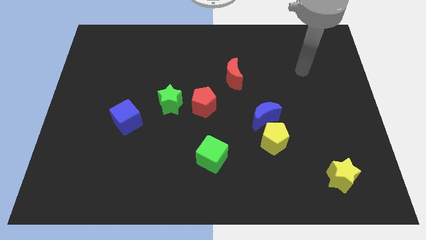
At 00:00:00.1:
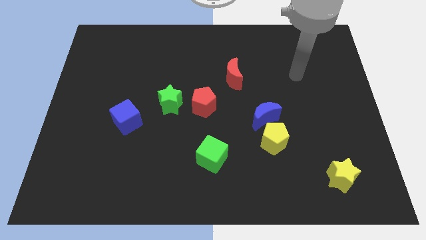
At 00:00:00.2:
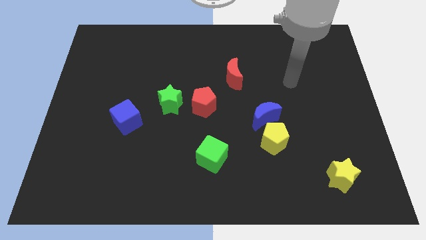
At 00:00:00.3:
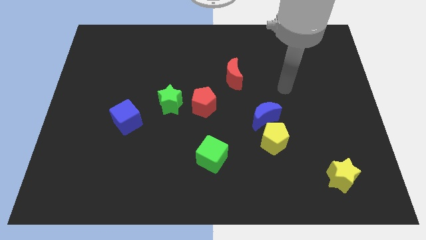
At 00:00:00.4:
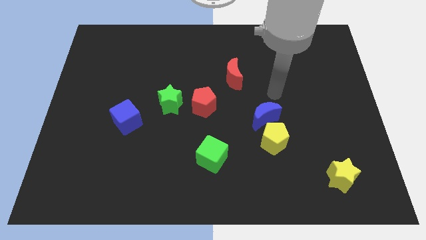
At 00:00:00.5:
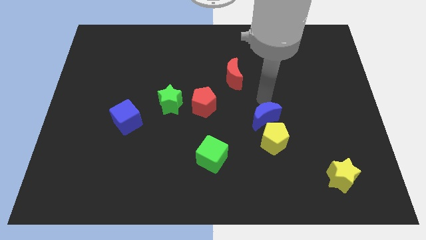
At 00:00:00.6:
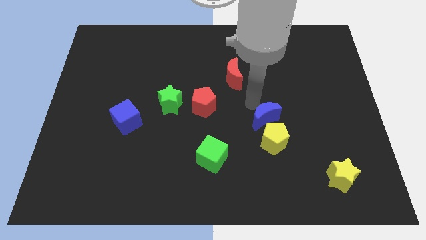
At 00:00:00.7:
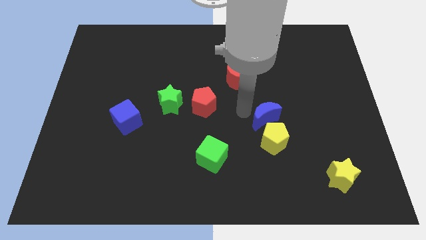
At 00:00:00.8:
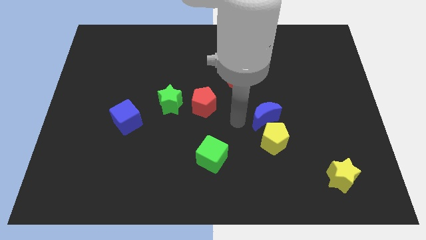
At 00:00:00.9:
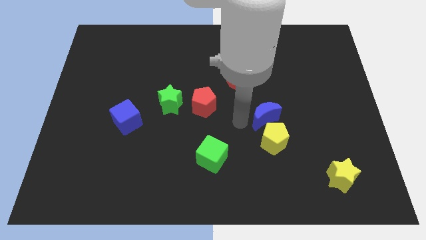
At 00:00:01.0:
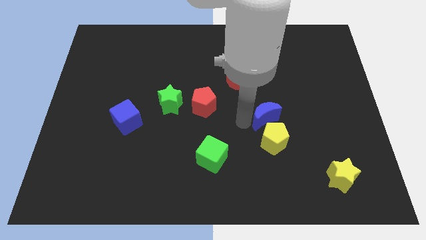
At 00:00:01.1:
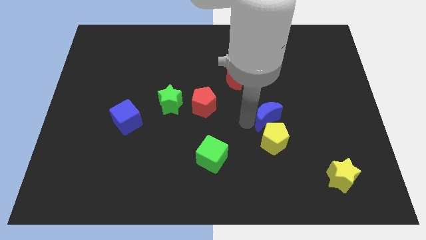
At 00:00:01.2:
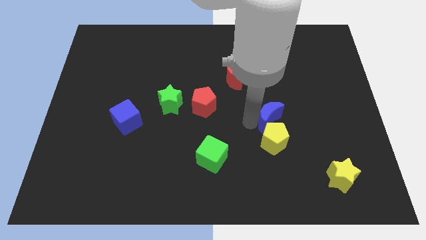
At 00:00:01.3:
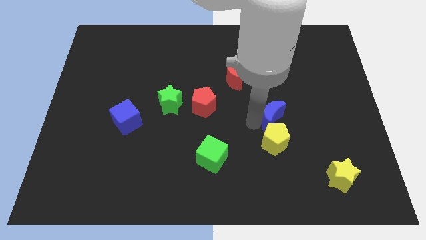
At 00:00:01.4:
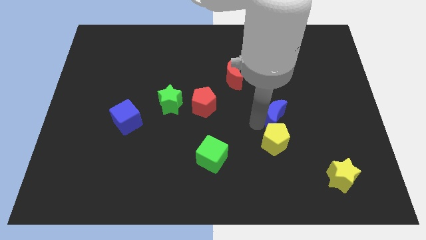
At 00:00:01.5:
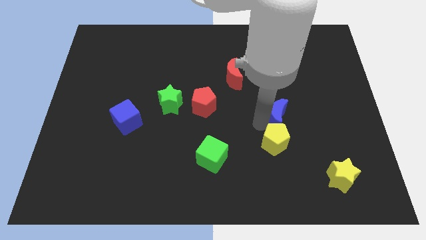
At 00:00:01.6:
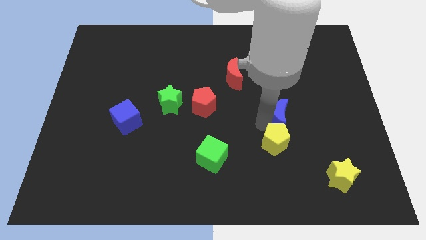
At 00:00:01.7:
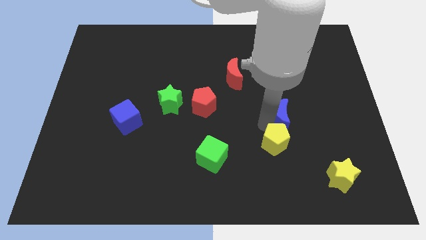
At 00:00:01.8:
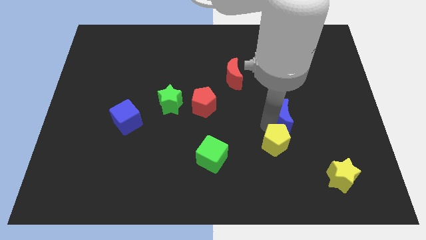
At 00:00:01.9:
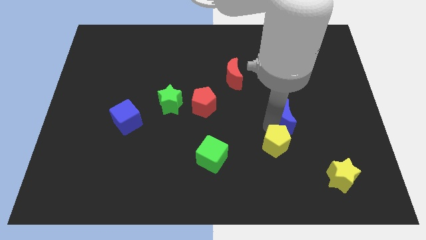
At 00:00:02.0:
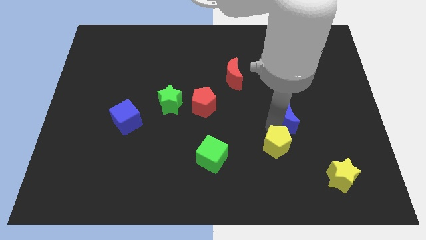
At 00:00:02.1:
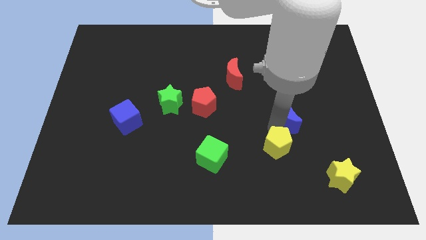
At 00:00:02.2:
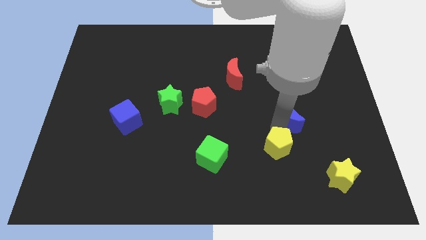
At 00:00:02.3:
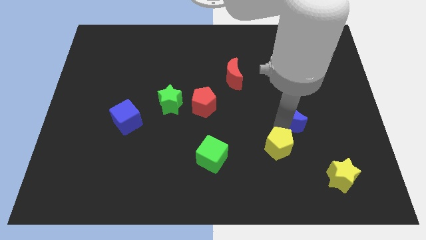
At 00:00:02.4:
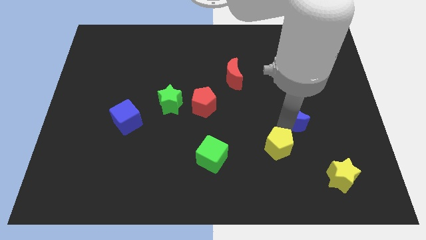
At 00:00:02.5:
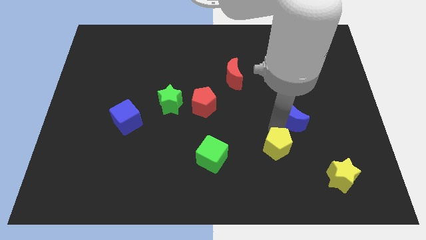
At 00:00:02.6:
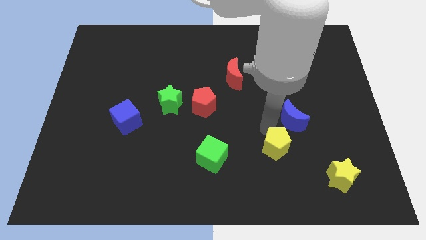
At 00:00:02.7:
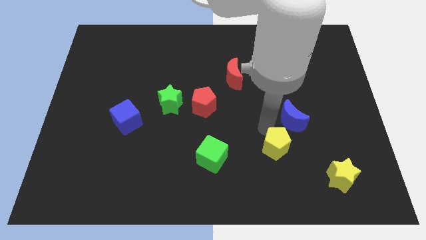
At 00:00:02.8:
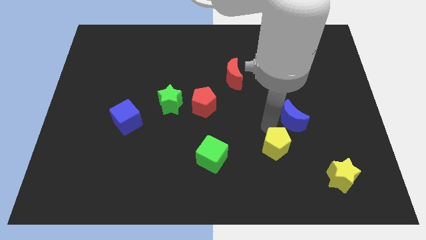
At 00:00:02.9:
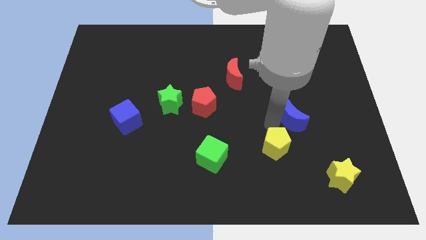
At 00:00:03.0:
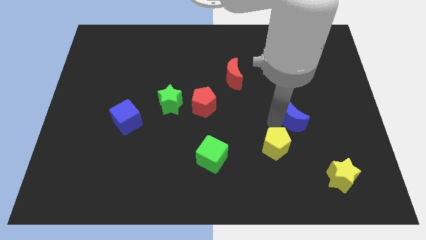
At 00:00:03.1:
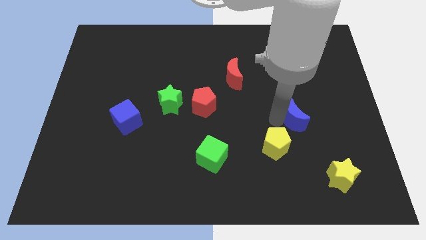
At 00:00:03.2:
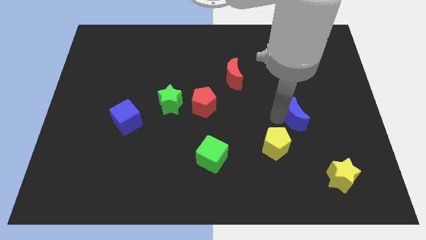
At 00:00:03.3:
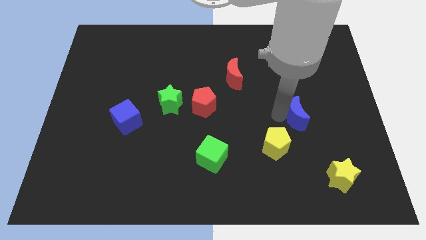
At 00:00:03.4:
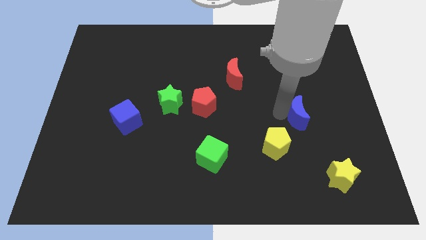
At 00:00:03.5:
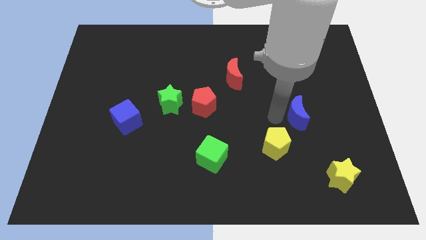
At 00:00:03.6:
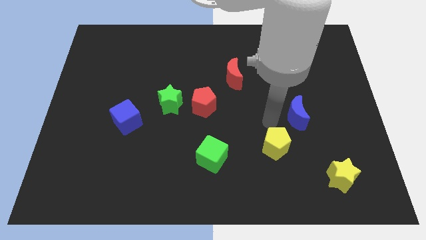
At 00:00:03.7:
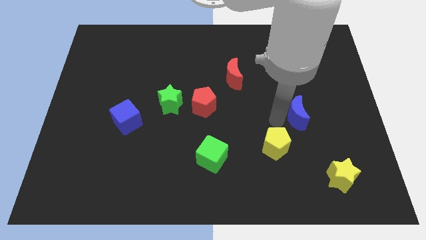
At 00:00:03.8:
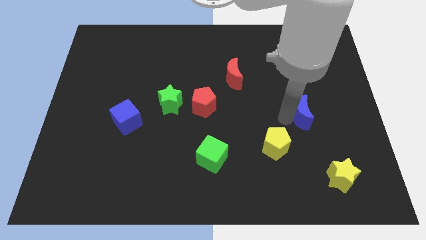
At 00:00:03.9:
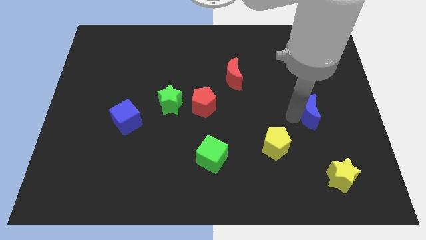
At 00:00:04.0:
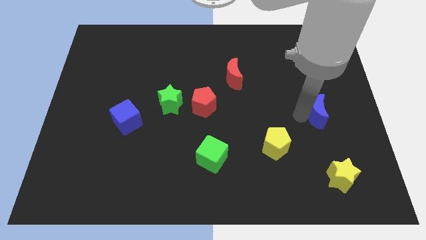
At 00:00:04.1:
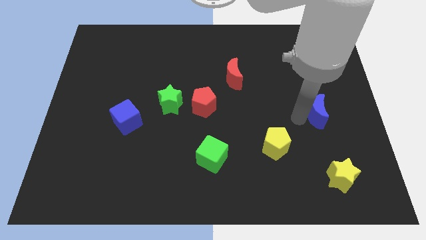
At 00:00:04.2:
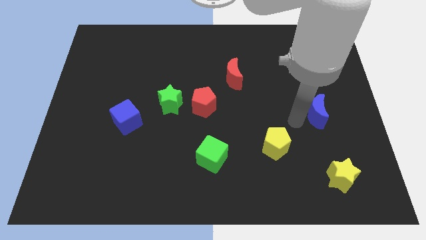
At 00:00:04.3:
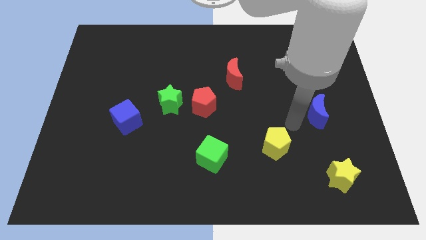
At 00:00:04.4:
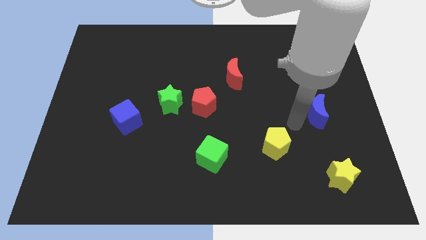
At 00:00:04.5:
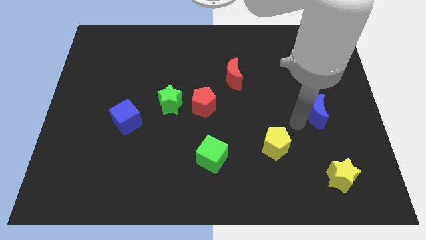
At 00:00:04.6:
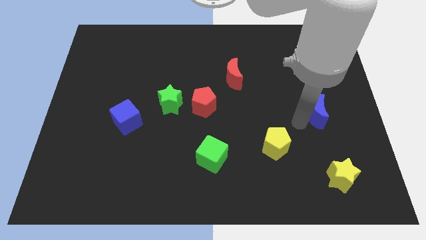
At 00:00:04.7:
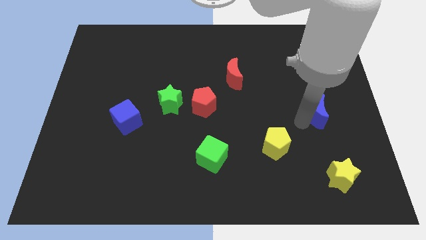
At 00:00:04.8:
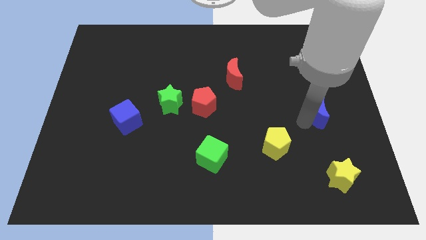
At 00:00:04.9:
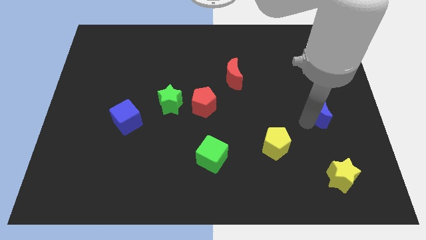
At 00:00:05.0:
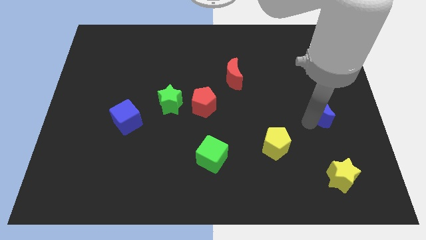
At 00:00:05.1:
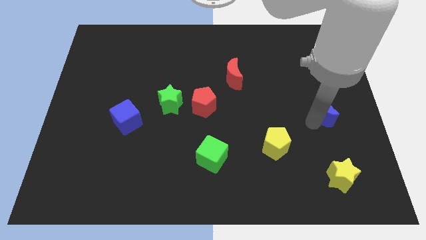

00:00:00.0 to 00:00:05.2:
slide the blue moon to the right side of the board
